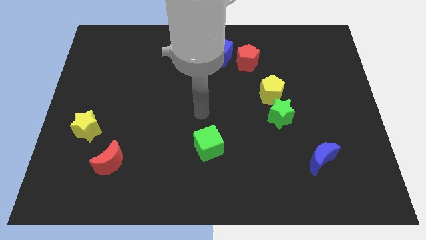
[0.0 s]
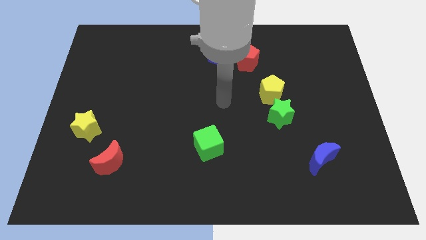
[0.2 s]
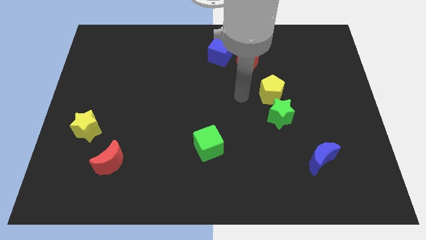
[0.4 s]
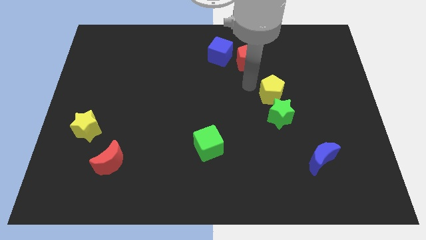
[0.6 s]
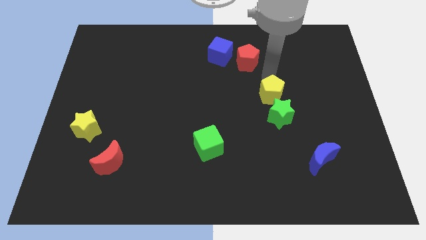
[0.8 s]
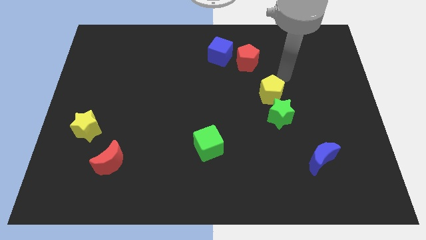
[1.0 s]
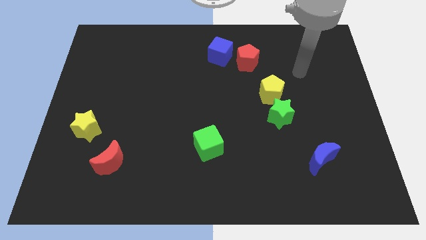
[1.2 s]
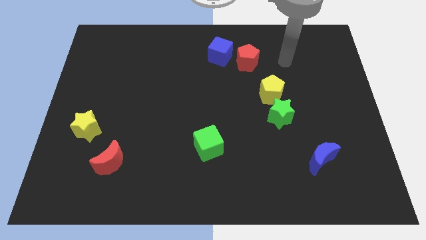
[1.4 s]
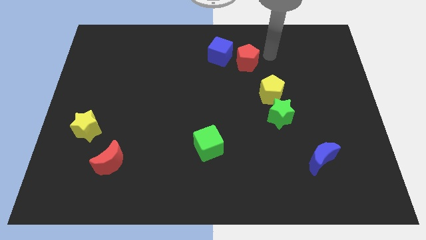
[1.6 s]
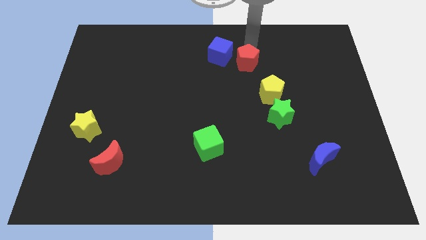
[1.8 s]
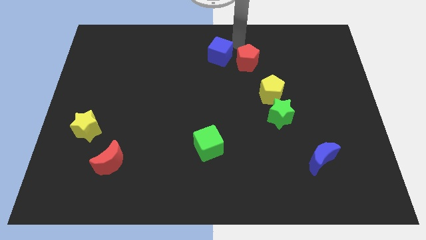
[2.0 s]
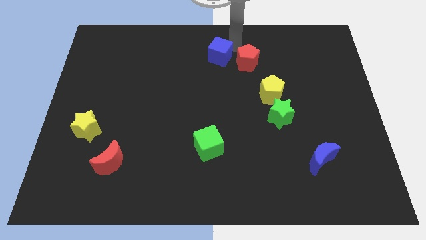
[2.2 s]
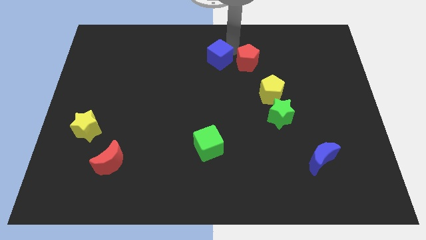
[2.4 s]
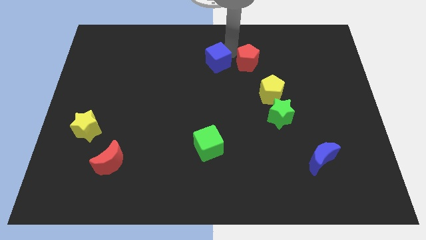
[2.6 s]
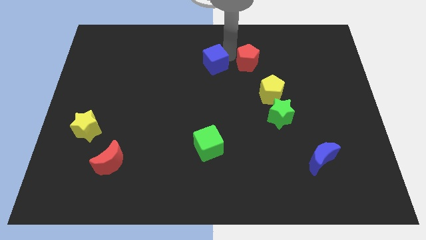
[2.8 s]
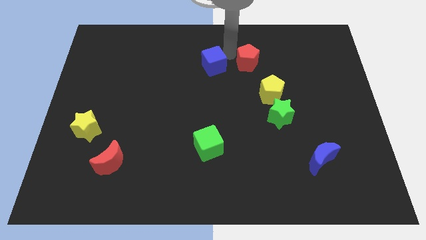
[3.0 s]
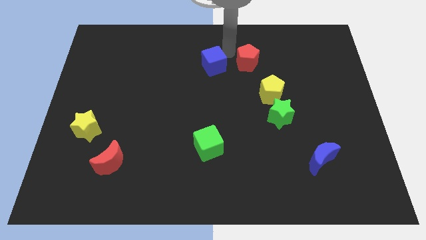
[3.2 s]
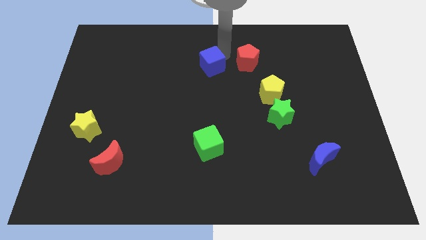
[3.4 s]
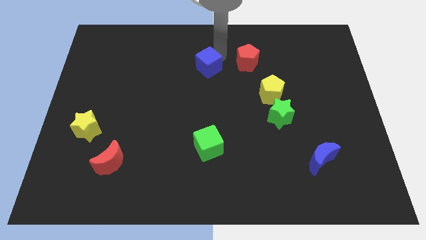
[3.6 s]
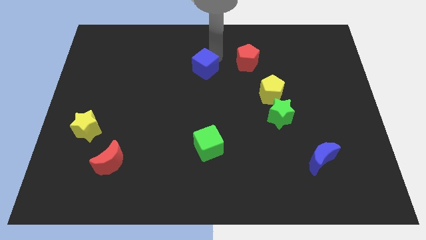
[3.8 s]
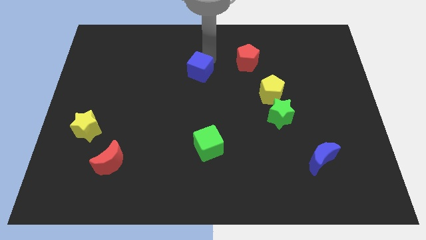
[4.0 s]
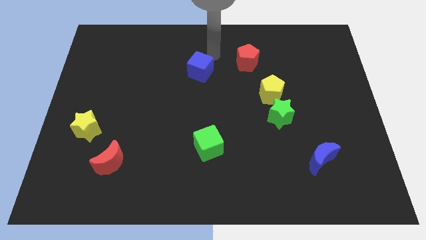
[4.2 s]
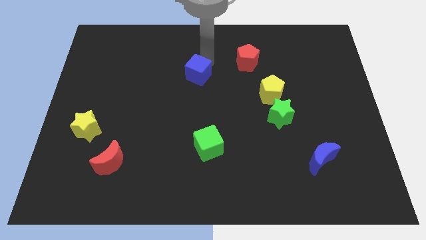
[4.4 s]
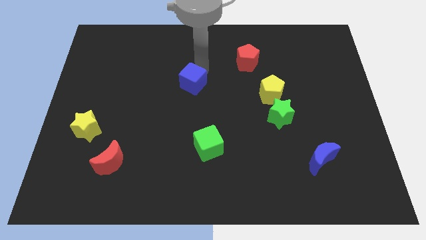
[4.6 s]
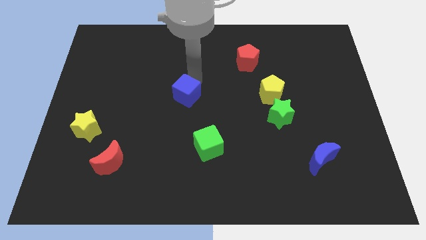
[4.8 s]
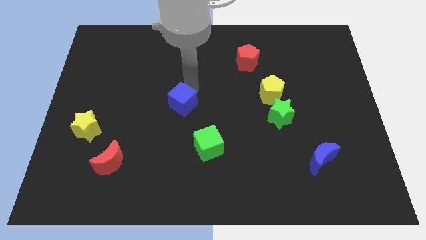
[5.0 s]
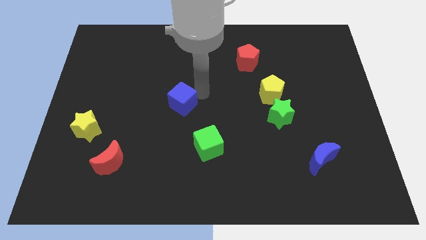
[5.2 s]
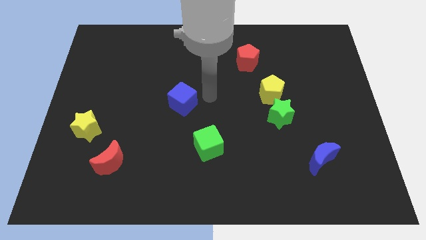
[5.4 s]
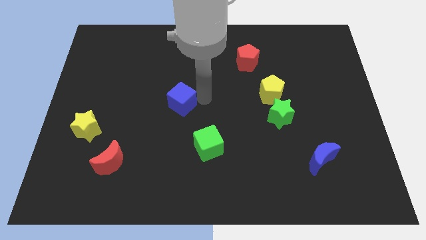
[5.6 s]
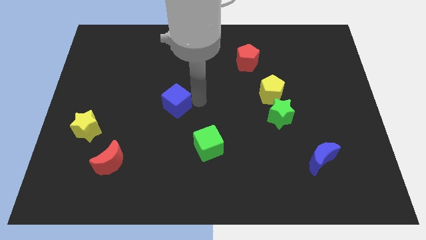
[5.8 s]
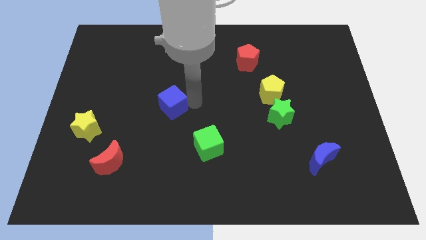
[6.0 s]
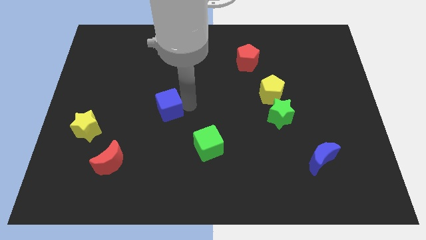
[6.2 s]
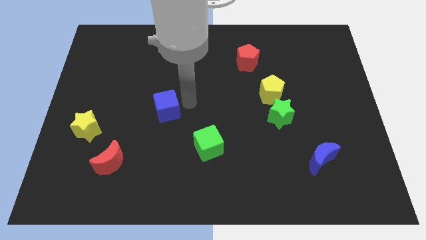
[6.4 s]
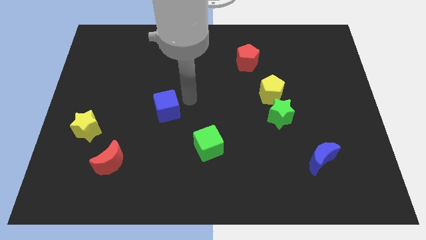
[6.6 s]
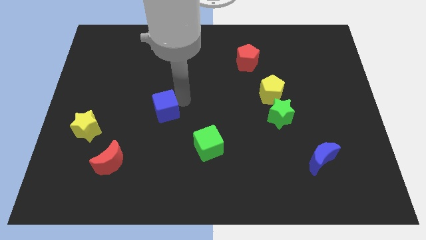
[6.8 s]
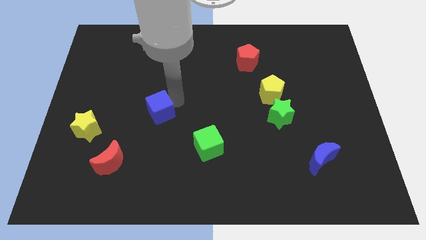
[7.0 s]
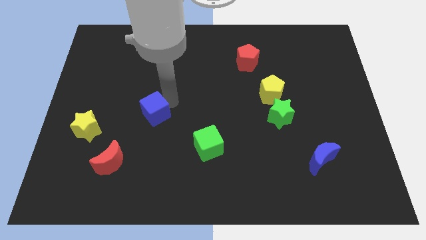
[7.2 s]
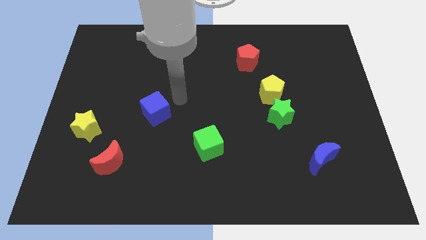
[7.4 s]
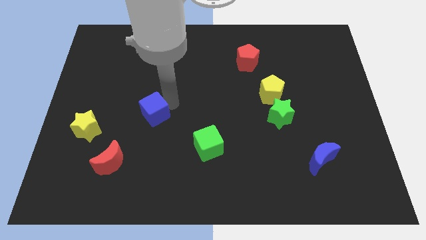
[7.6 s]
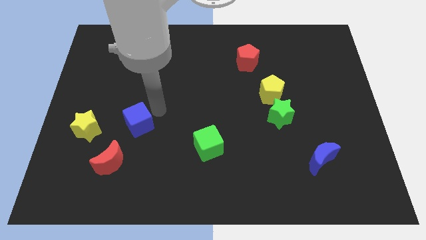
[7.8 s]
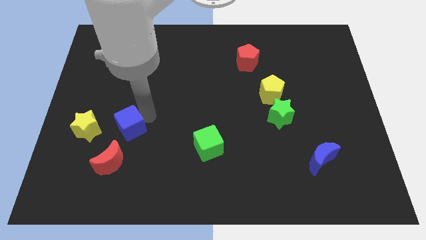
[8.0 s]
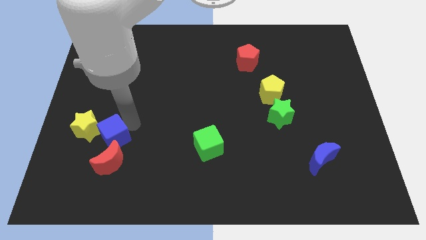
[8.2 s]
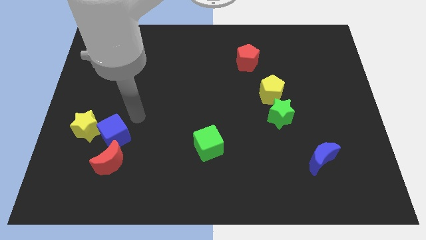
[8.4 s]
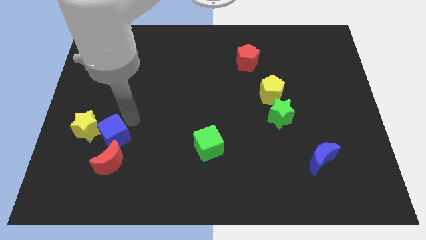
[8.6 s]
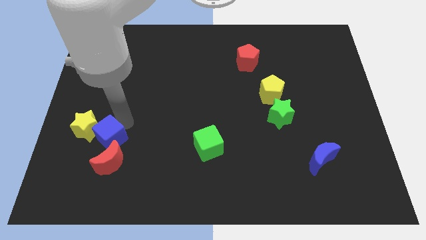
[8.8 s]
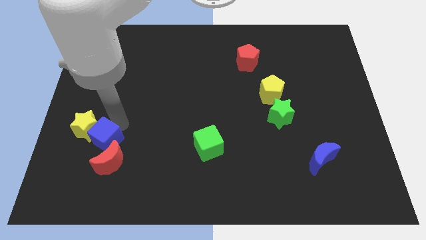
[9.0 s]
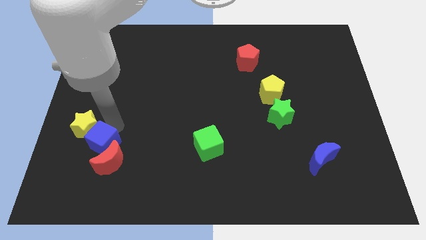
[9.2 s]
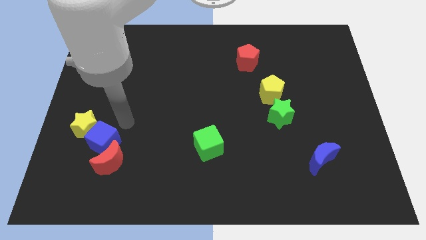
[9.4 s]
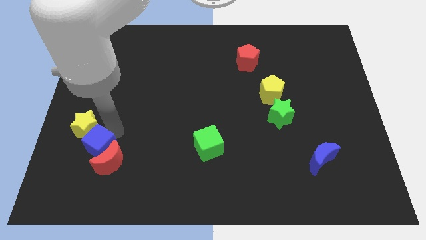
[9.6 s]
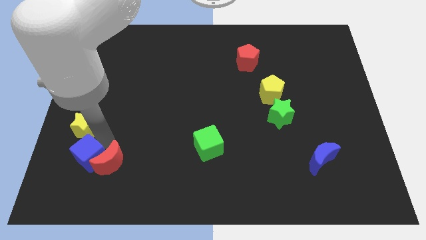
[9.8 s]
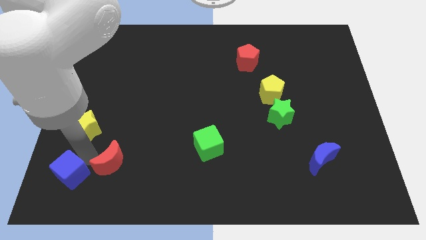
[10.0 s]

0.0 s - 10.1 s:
push the blue cube to the bottom left corner

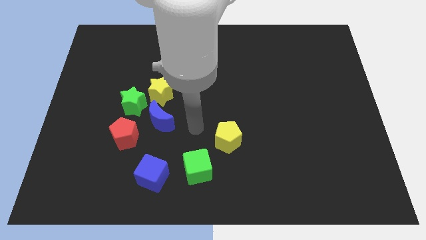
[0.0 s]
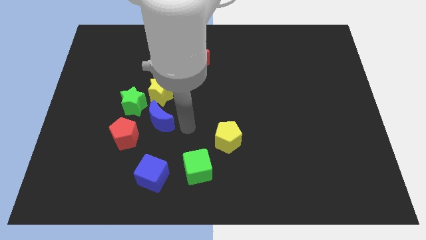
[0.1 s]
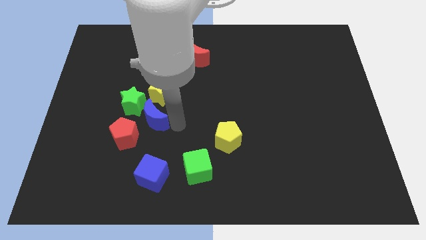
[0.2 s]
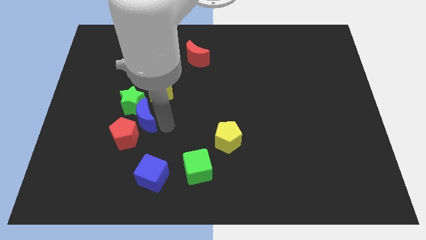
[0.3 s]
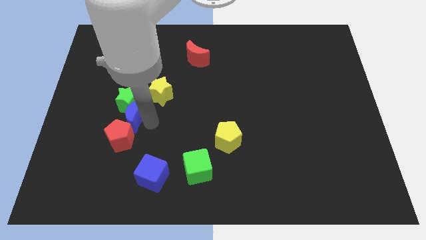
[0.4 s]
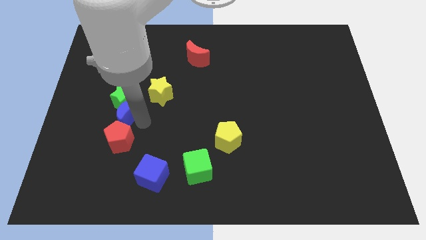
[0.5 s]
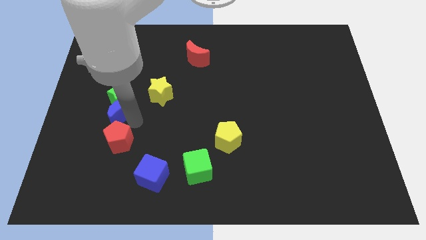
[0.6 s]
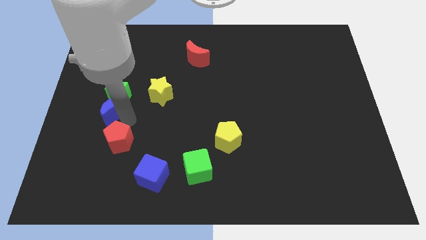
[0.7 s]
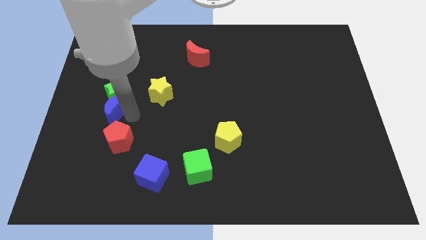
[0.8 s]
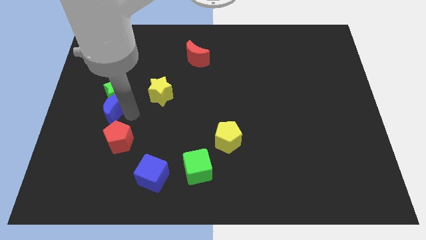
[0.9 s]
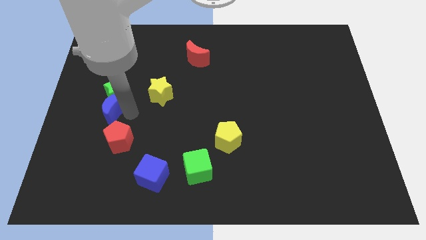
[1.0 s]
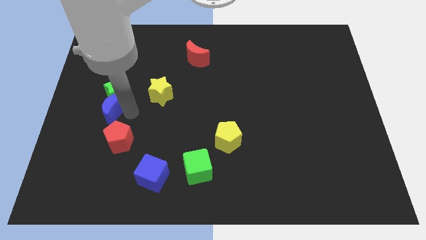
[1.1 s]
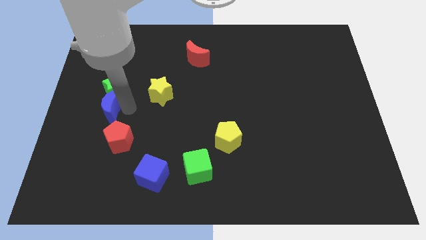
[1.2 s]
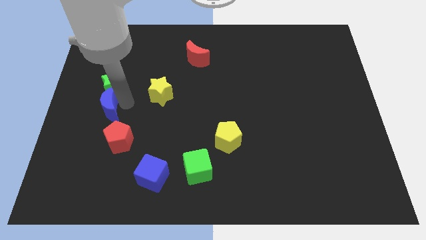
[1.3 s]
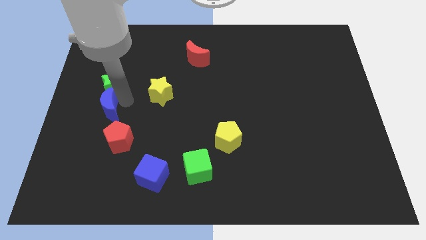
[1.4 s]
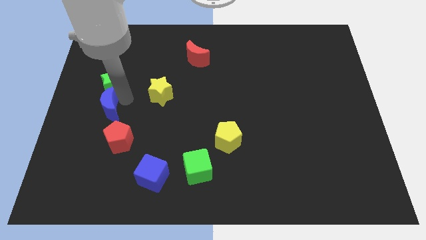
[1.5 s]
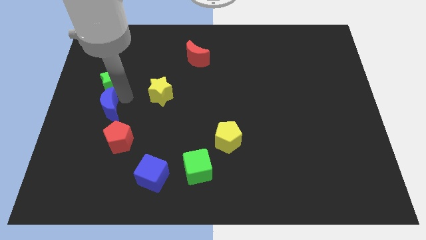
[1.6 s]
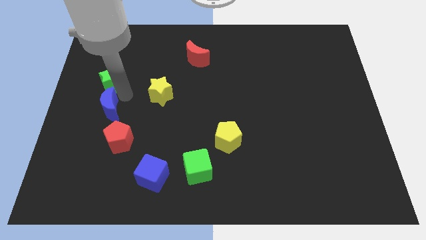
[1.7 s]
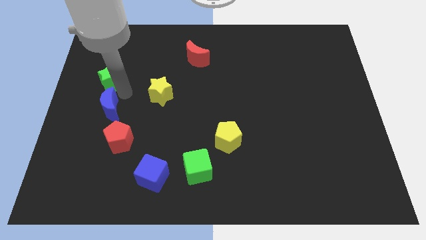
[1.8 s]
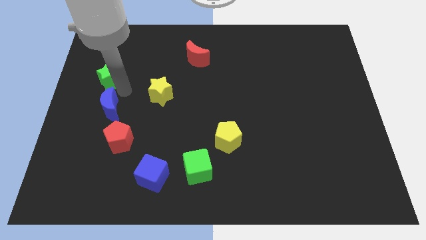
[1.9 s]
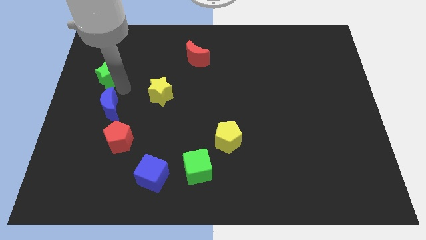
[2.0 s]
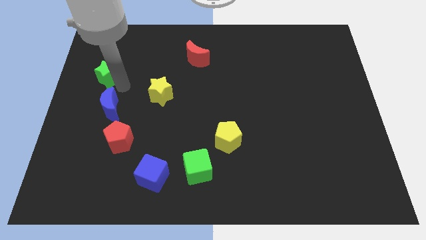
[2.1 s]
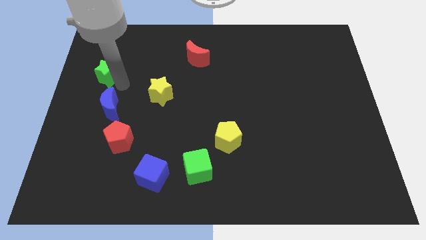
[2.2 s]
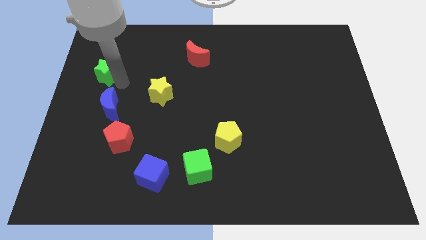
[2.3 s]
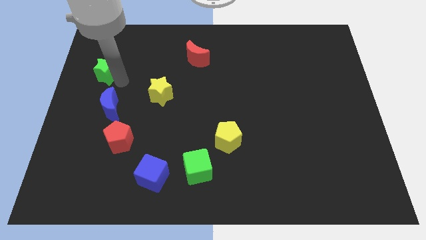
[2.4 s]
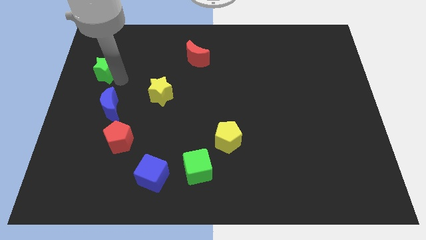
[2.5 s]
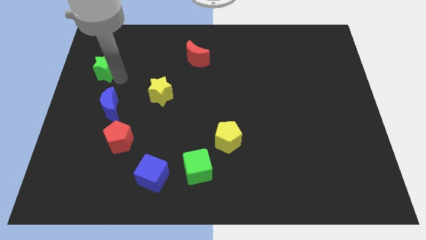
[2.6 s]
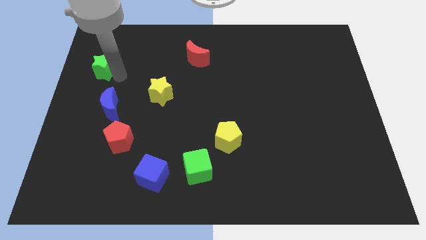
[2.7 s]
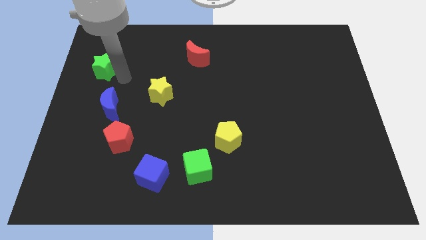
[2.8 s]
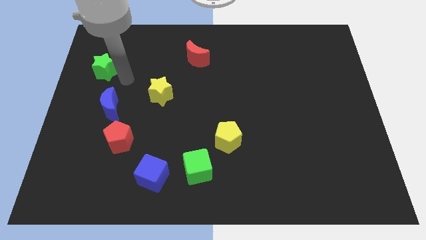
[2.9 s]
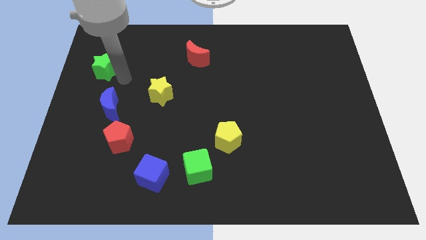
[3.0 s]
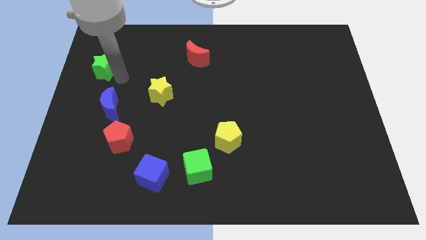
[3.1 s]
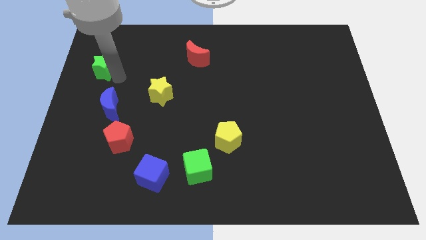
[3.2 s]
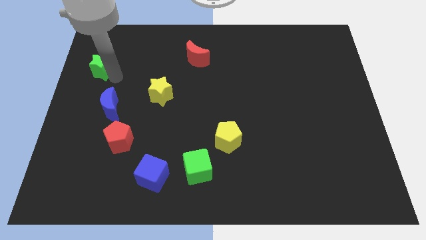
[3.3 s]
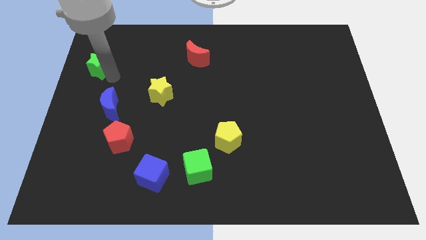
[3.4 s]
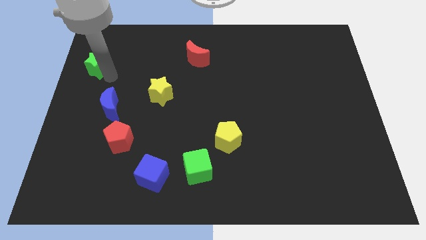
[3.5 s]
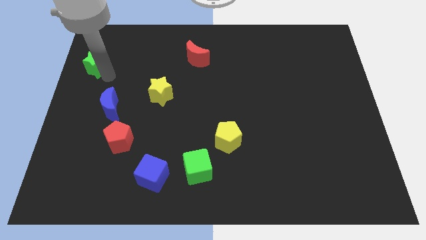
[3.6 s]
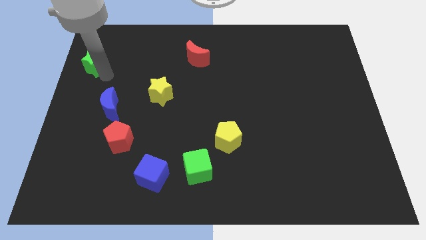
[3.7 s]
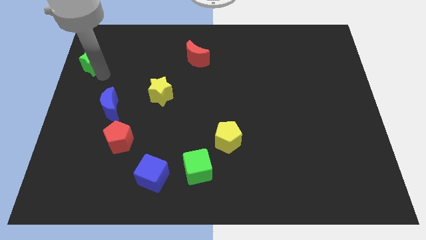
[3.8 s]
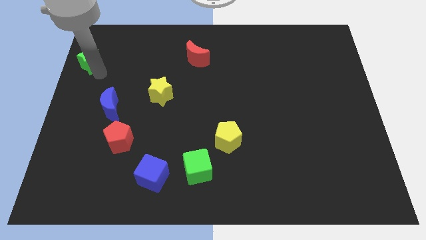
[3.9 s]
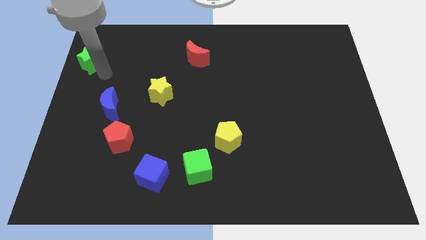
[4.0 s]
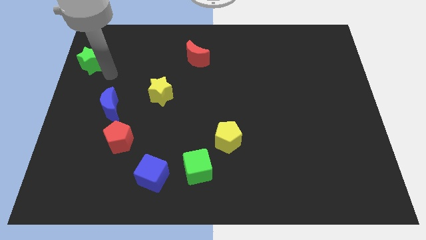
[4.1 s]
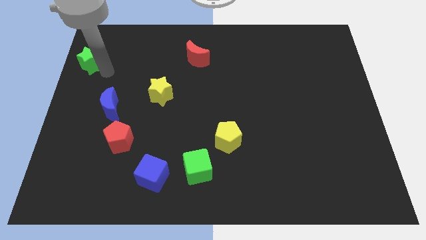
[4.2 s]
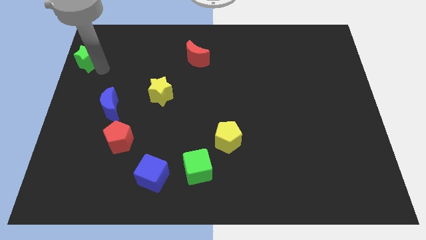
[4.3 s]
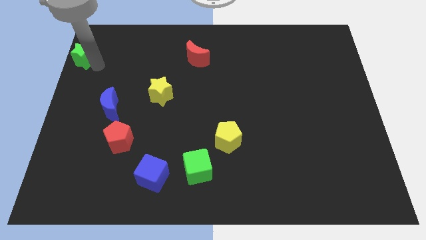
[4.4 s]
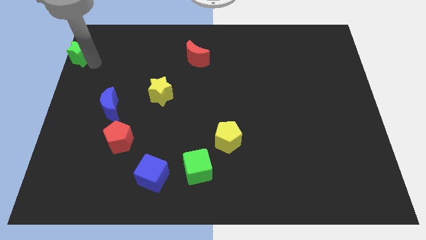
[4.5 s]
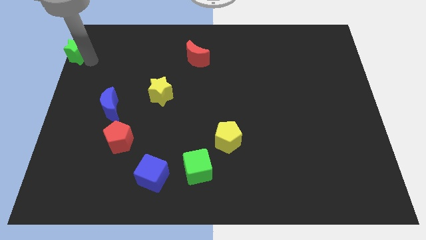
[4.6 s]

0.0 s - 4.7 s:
put the green star to the top left
